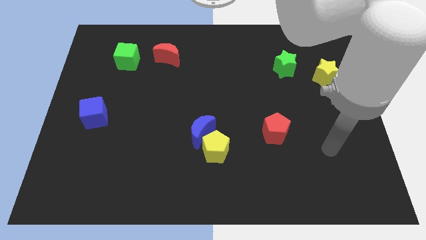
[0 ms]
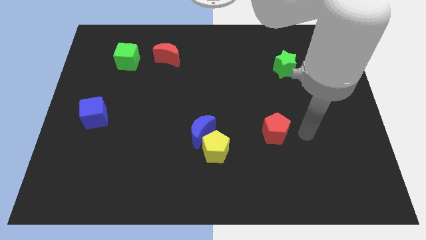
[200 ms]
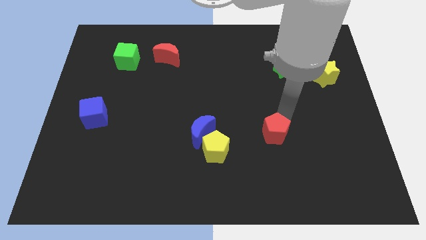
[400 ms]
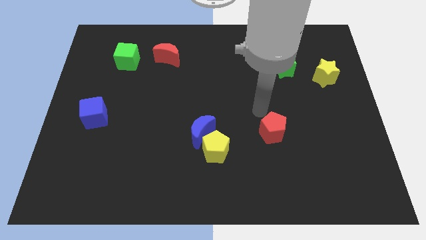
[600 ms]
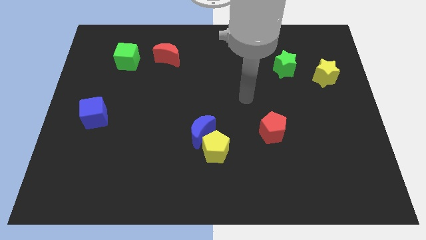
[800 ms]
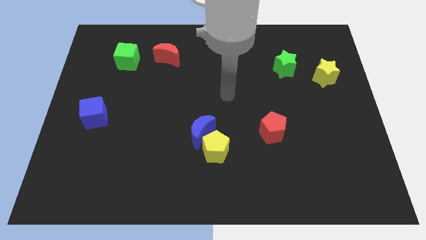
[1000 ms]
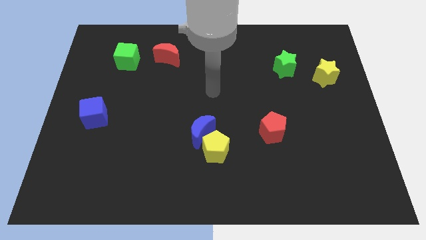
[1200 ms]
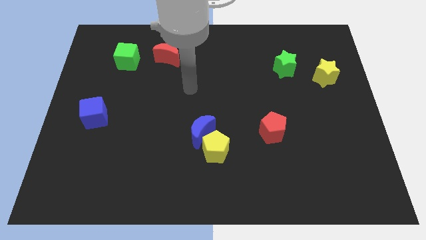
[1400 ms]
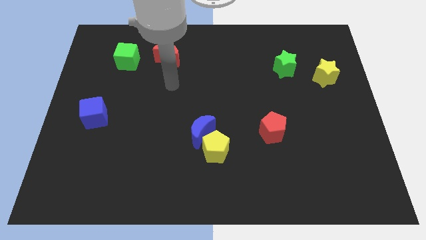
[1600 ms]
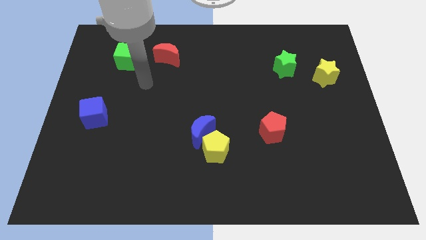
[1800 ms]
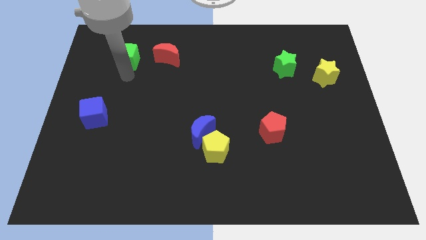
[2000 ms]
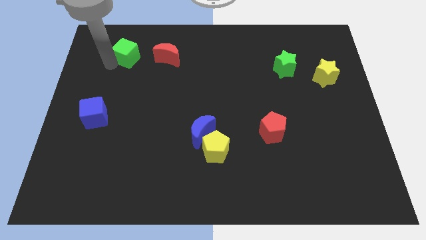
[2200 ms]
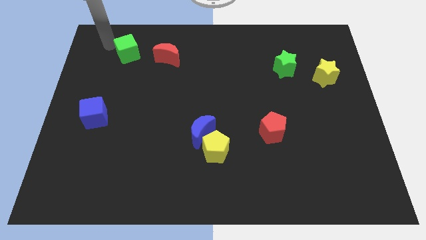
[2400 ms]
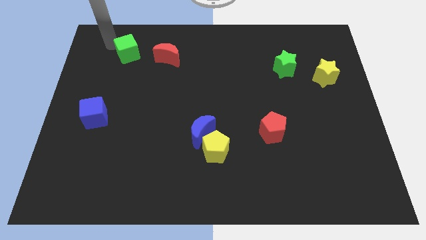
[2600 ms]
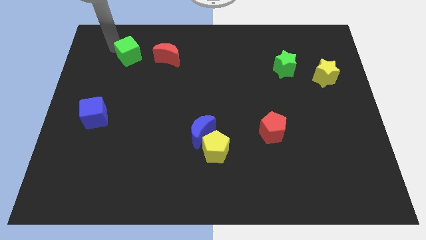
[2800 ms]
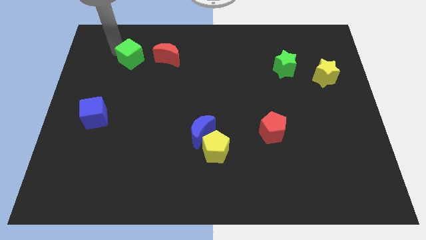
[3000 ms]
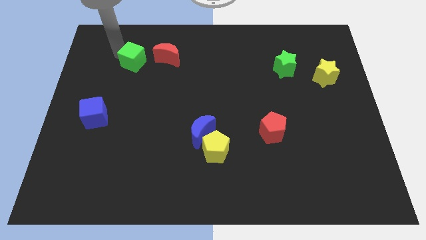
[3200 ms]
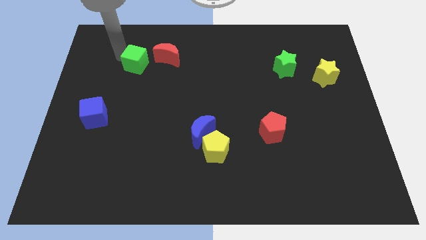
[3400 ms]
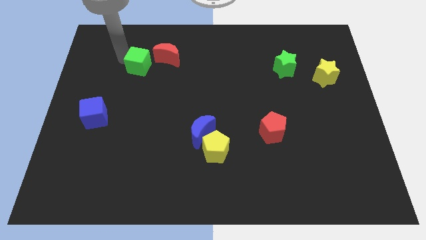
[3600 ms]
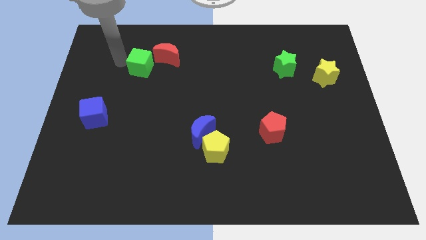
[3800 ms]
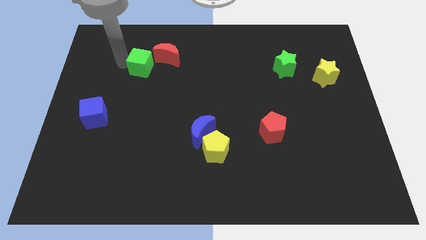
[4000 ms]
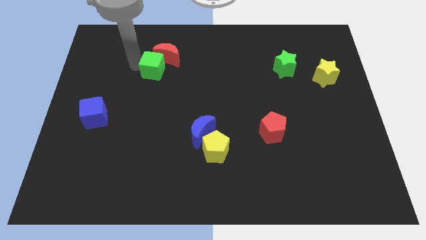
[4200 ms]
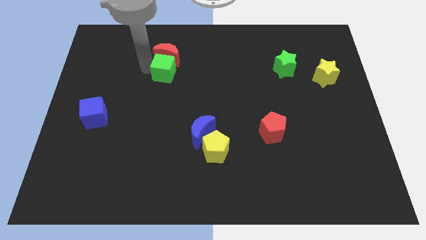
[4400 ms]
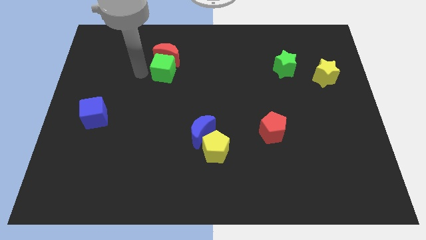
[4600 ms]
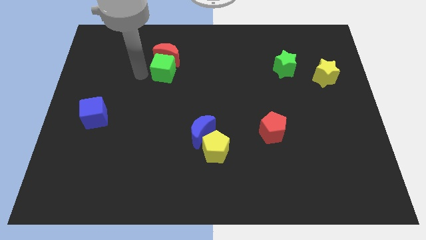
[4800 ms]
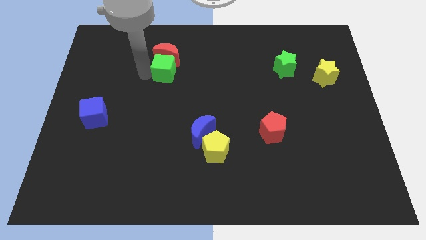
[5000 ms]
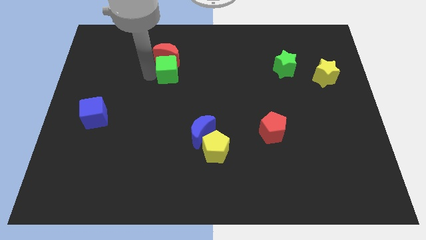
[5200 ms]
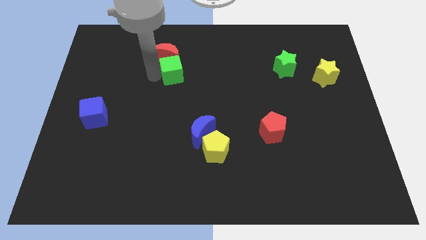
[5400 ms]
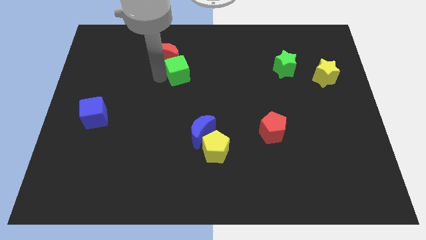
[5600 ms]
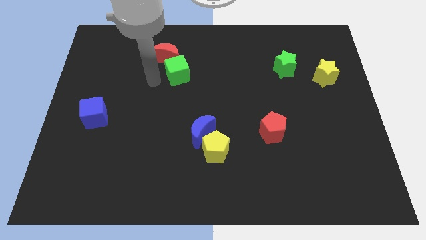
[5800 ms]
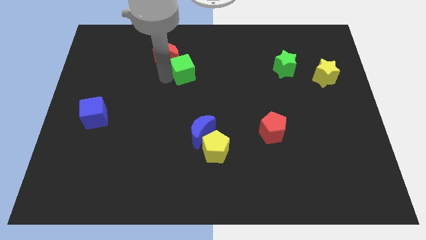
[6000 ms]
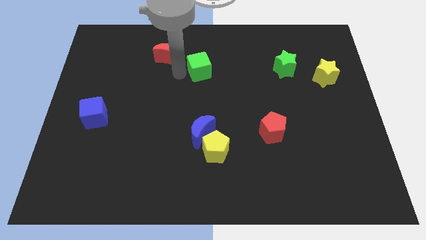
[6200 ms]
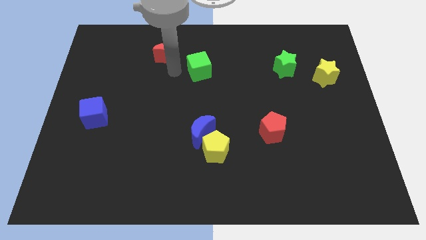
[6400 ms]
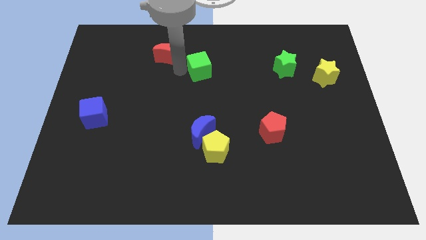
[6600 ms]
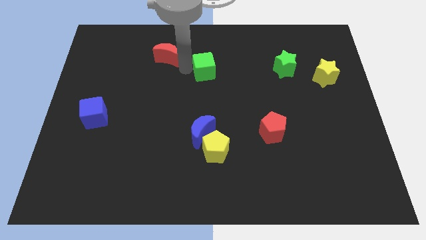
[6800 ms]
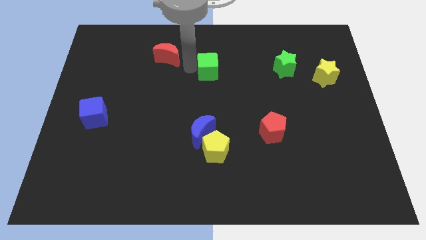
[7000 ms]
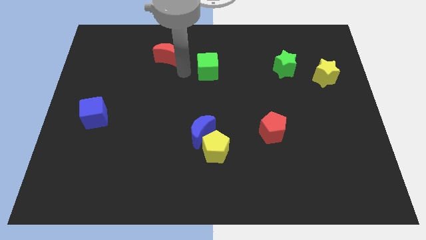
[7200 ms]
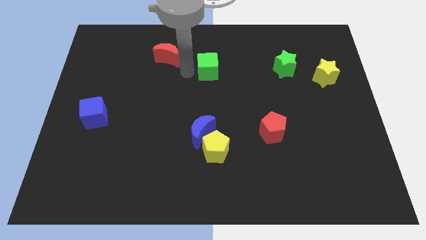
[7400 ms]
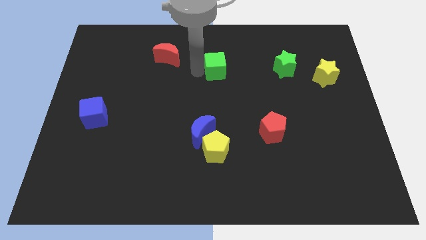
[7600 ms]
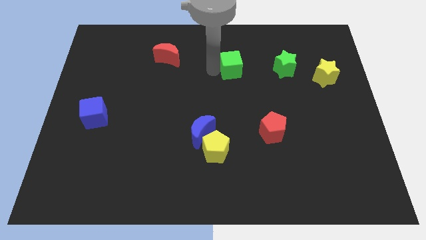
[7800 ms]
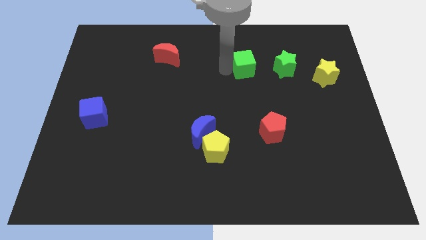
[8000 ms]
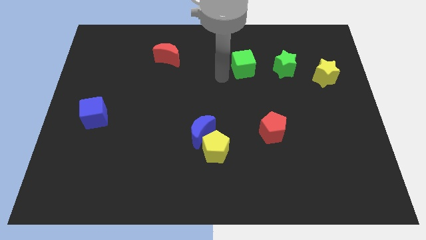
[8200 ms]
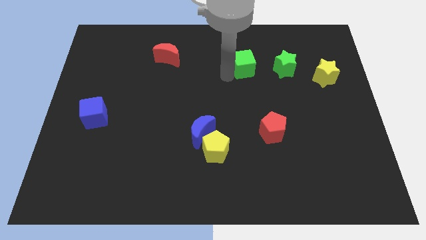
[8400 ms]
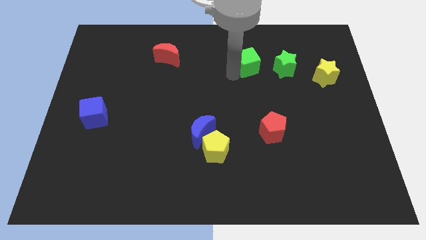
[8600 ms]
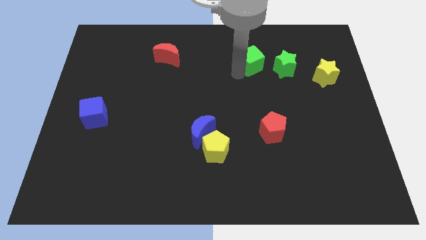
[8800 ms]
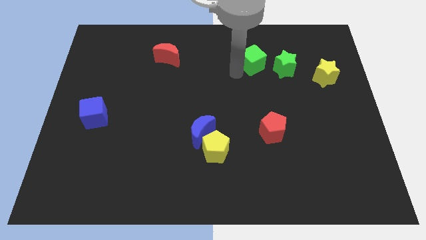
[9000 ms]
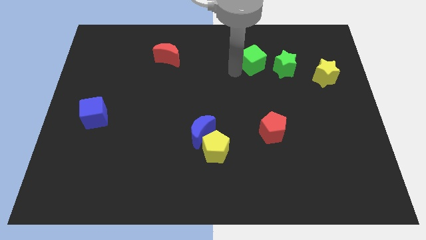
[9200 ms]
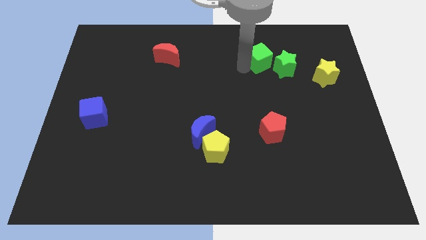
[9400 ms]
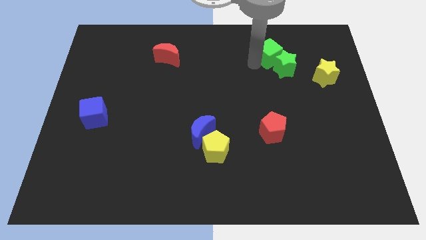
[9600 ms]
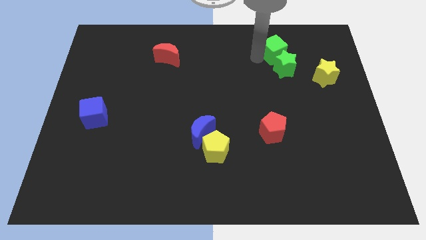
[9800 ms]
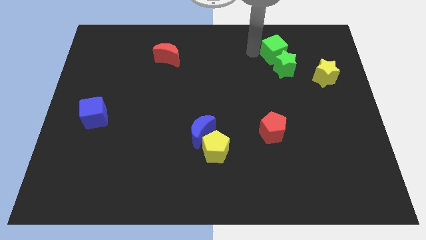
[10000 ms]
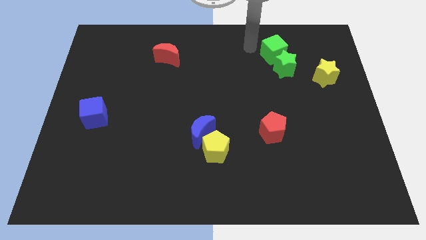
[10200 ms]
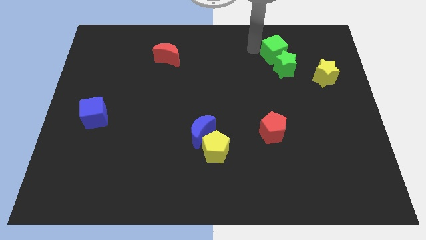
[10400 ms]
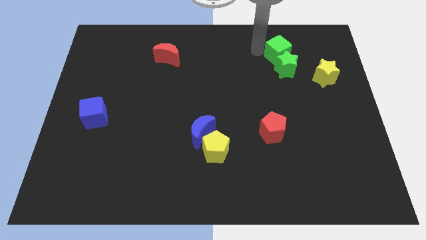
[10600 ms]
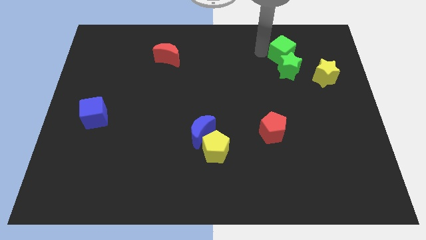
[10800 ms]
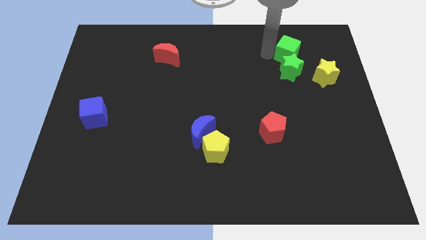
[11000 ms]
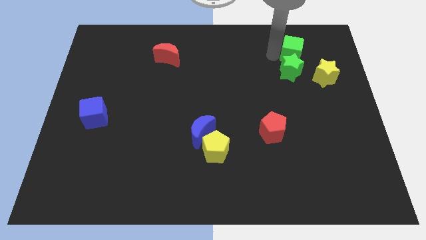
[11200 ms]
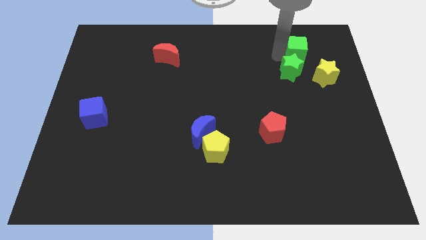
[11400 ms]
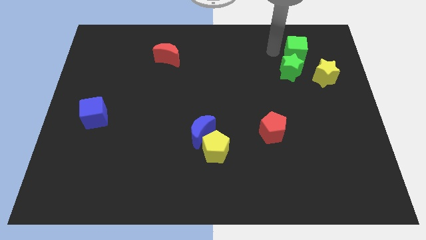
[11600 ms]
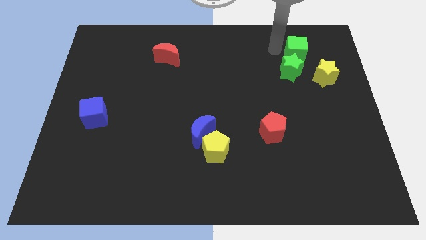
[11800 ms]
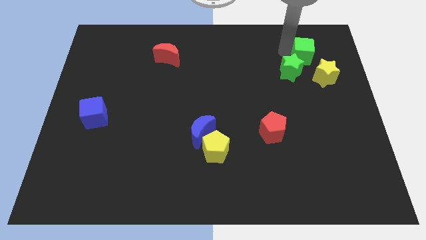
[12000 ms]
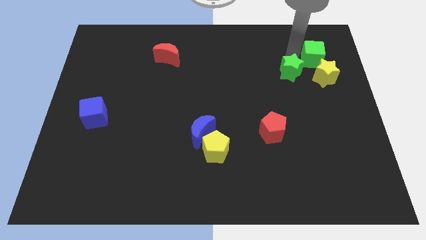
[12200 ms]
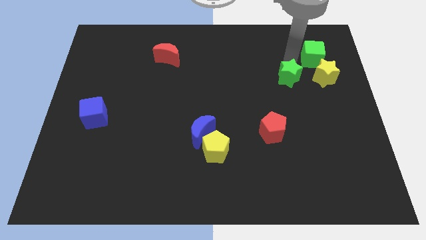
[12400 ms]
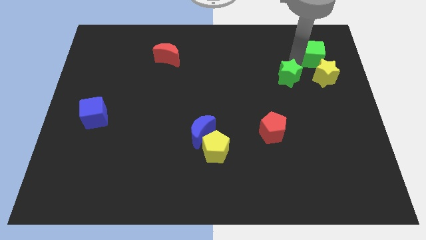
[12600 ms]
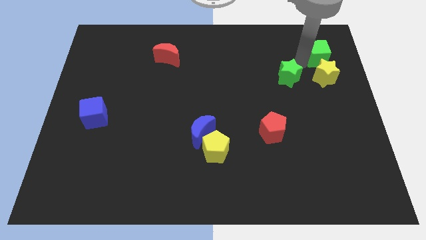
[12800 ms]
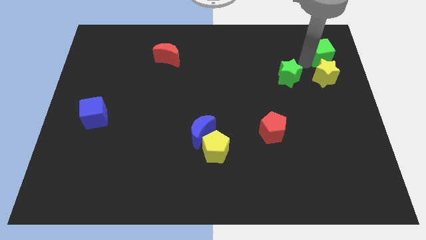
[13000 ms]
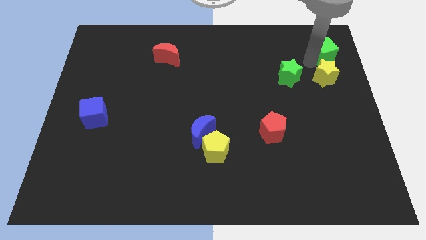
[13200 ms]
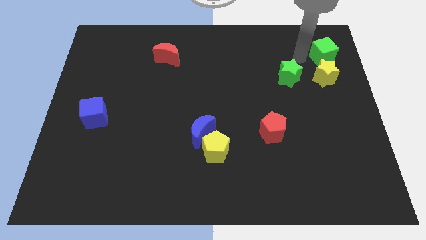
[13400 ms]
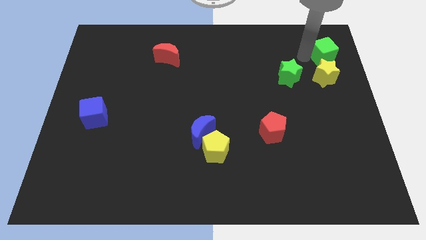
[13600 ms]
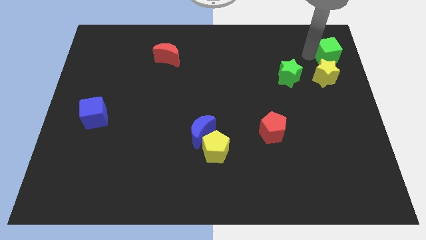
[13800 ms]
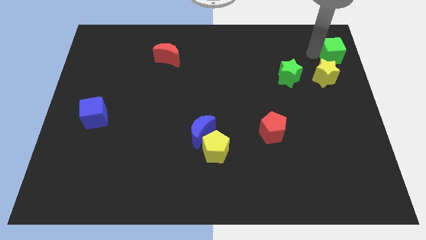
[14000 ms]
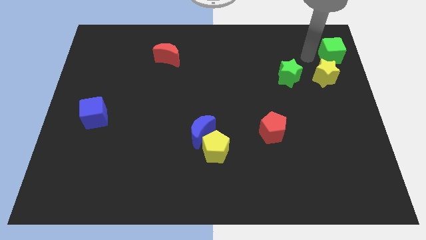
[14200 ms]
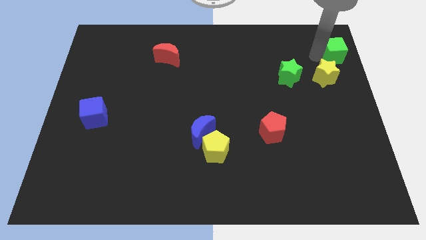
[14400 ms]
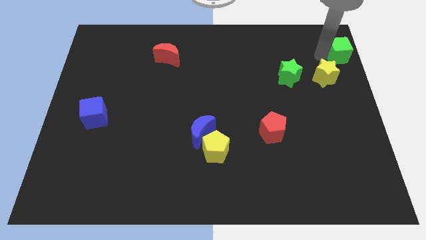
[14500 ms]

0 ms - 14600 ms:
move the green cube to the upper right corner

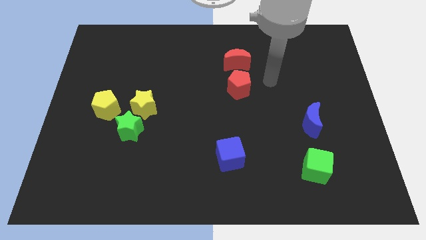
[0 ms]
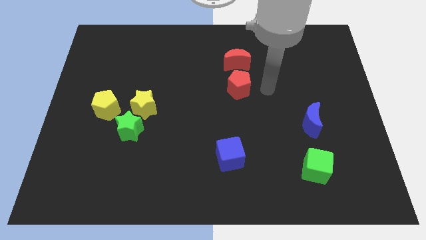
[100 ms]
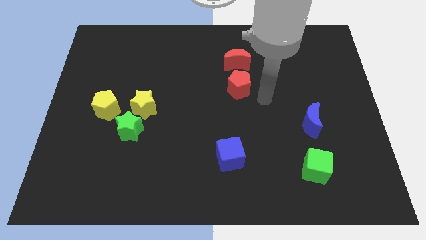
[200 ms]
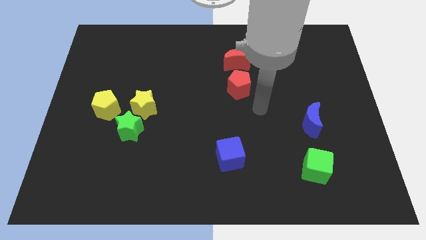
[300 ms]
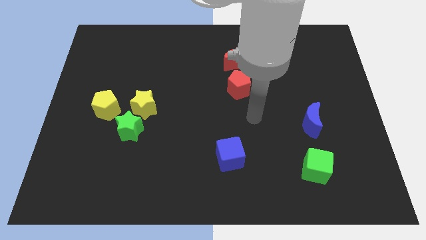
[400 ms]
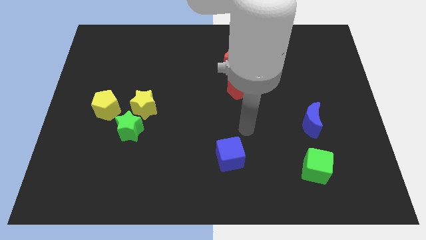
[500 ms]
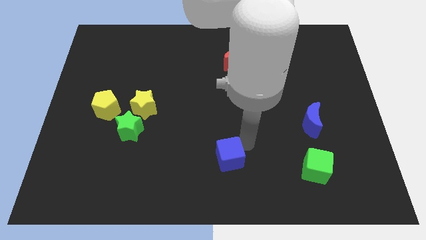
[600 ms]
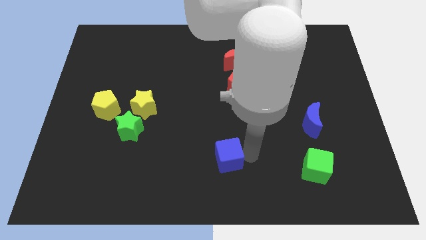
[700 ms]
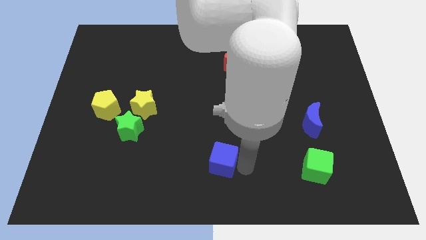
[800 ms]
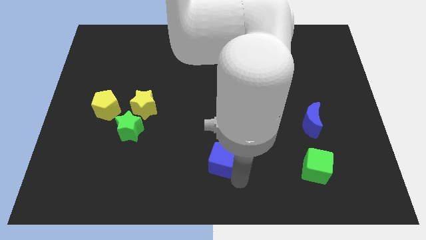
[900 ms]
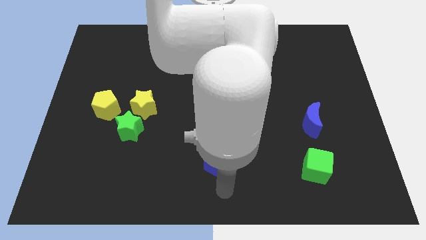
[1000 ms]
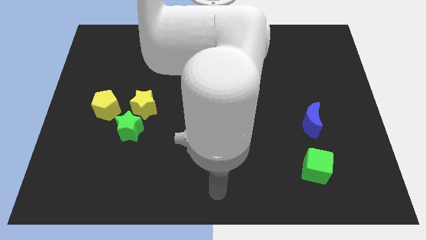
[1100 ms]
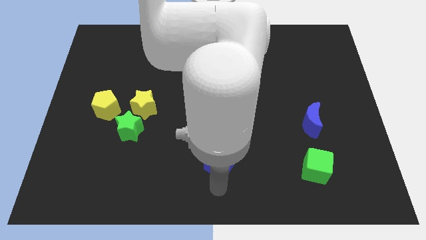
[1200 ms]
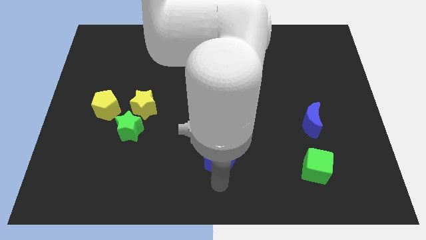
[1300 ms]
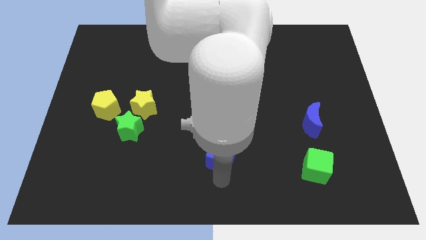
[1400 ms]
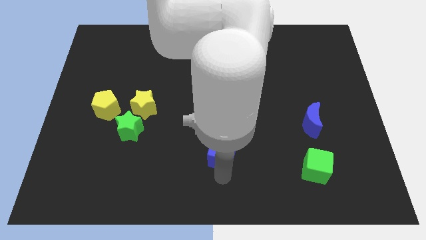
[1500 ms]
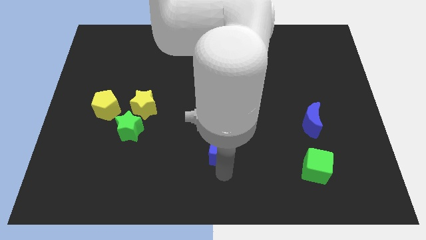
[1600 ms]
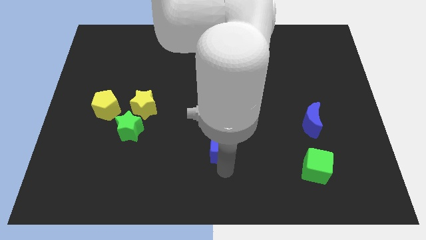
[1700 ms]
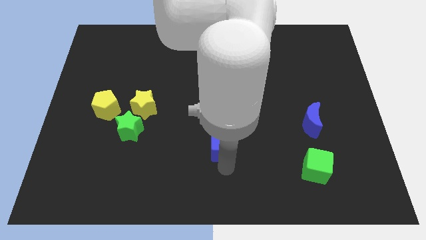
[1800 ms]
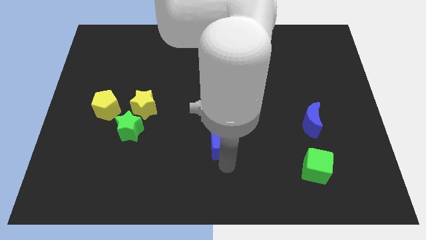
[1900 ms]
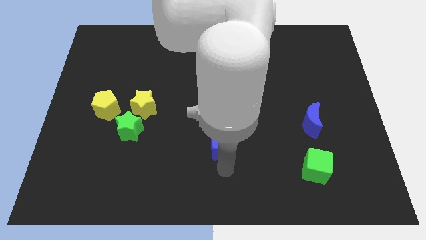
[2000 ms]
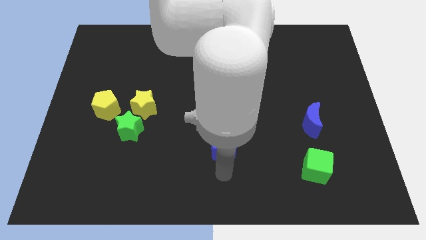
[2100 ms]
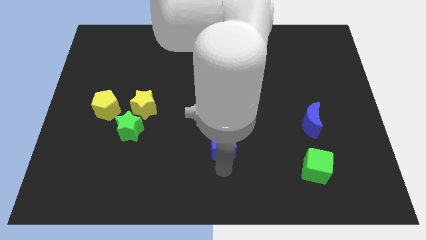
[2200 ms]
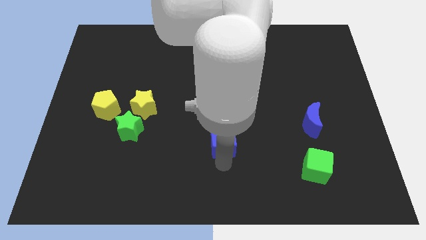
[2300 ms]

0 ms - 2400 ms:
move the blue cube to the center
